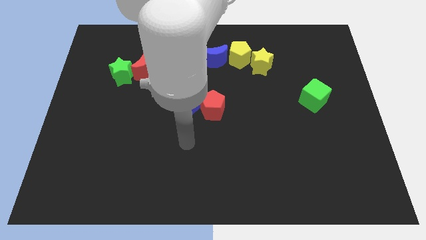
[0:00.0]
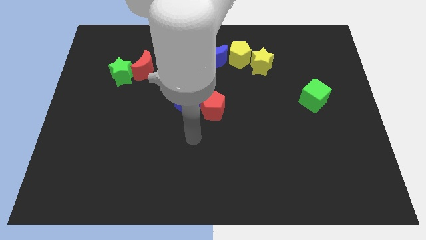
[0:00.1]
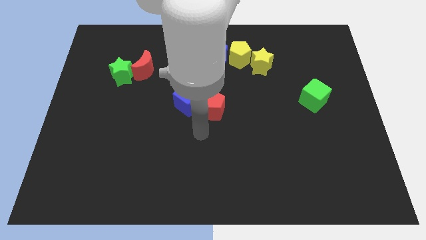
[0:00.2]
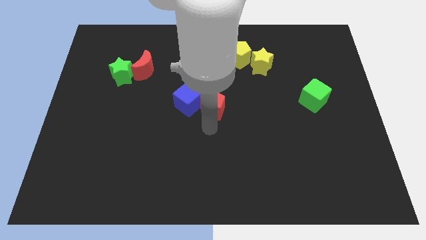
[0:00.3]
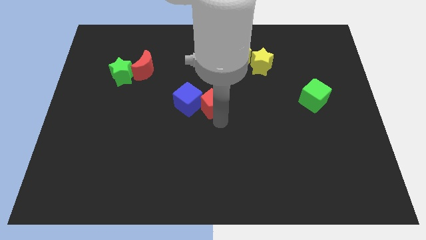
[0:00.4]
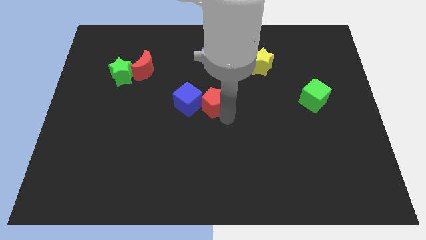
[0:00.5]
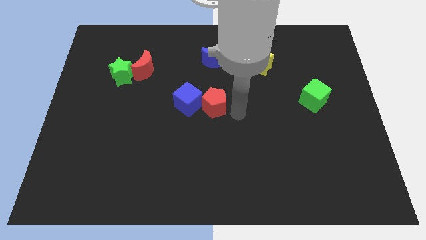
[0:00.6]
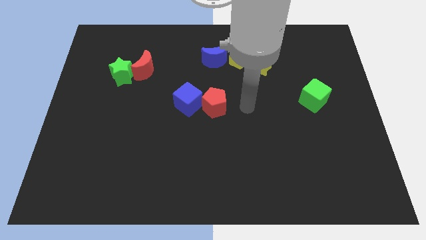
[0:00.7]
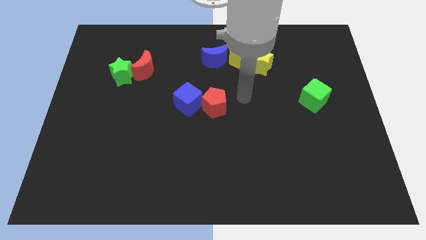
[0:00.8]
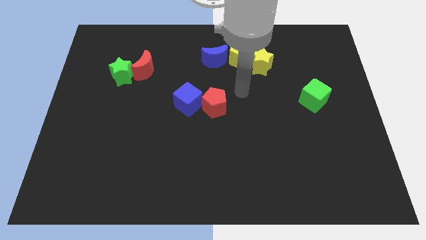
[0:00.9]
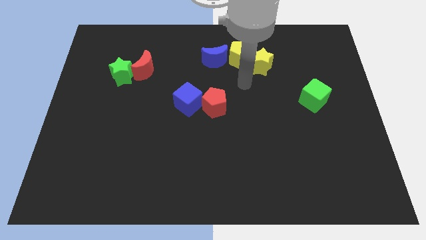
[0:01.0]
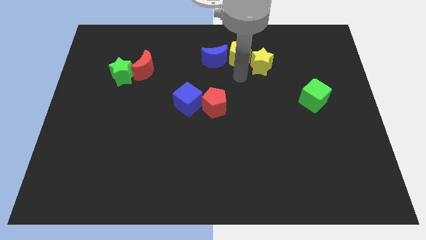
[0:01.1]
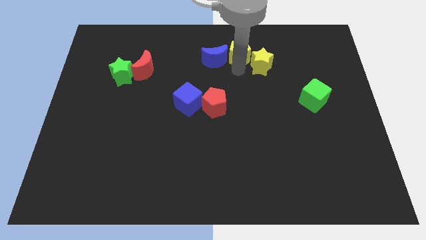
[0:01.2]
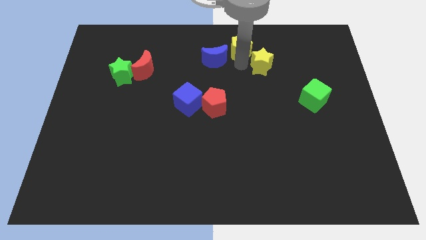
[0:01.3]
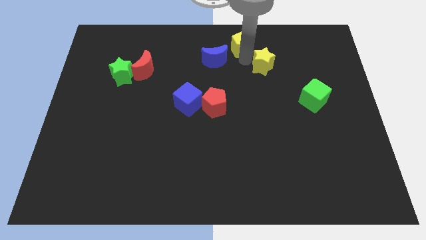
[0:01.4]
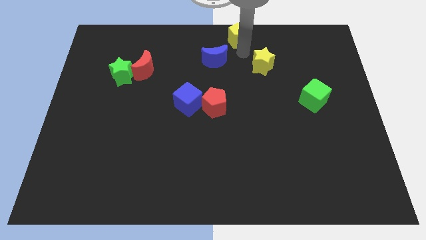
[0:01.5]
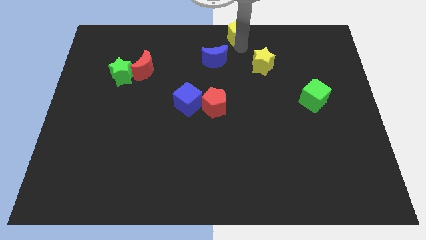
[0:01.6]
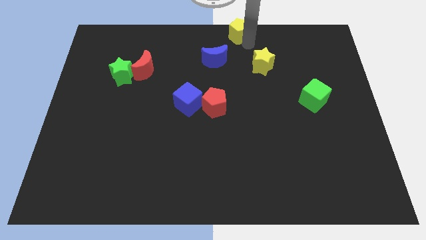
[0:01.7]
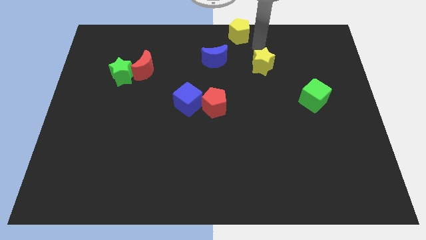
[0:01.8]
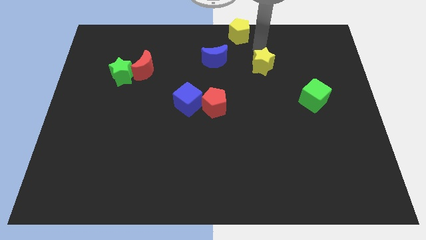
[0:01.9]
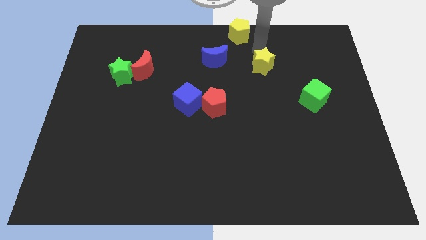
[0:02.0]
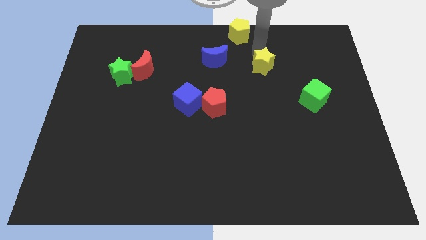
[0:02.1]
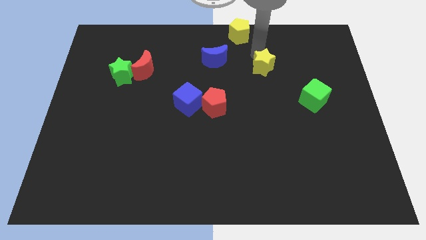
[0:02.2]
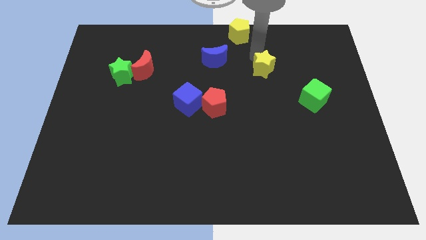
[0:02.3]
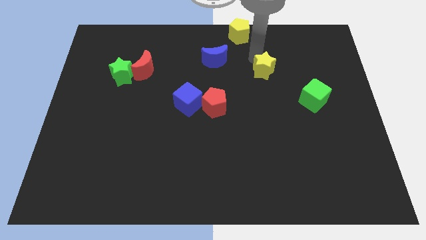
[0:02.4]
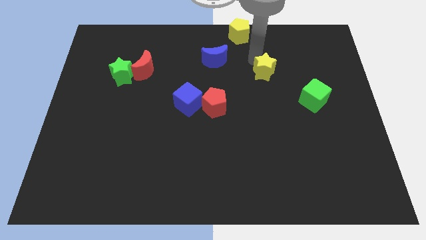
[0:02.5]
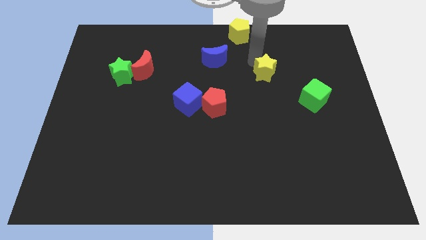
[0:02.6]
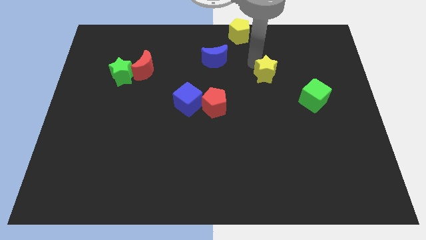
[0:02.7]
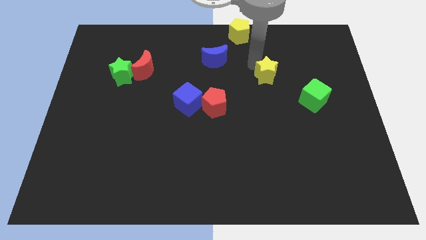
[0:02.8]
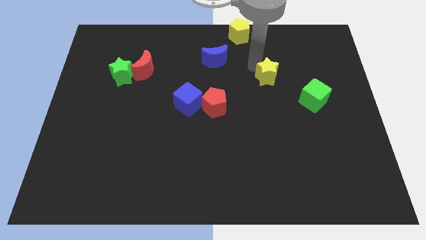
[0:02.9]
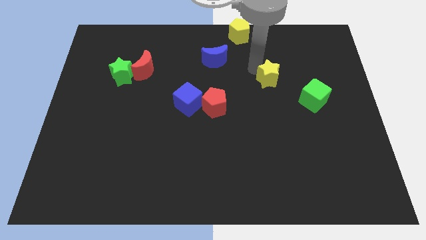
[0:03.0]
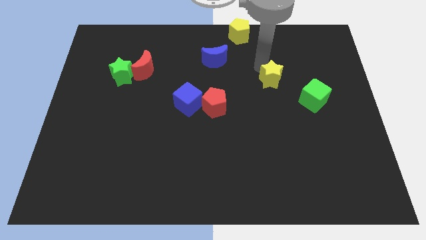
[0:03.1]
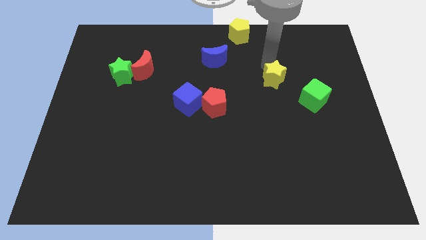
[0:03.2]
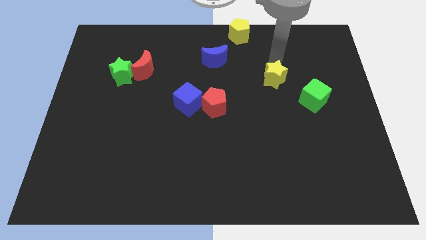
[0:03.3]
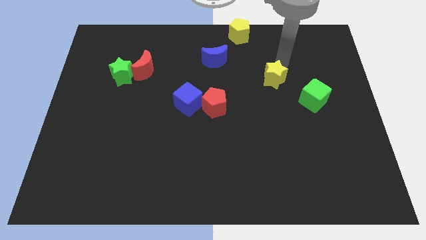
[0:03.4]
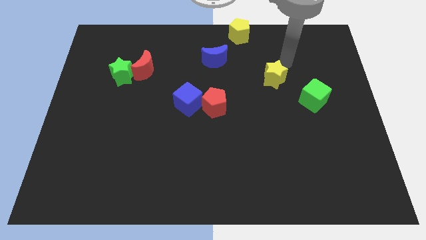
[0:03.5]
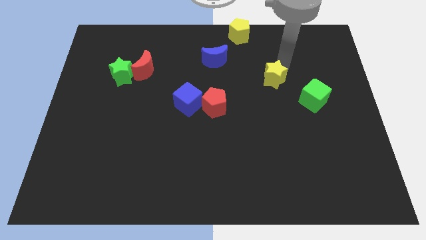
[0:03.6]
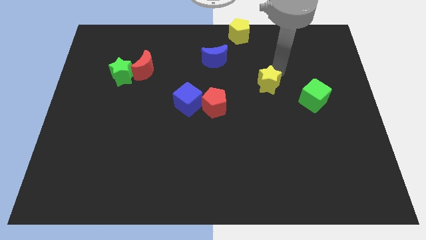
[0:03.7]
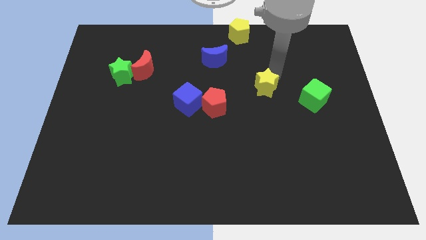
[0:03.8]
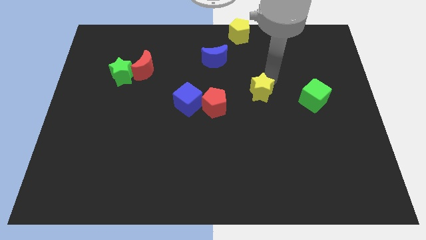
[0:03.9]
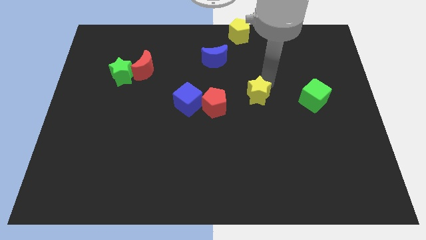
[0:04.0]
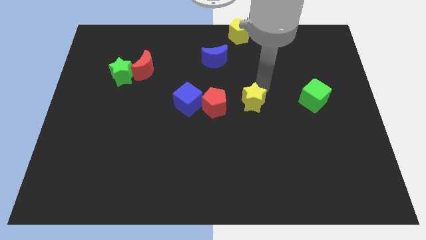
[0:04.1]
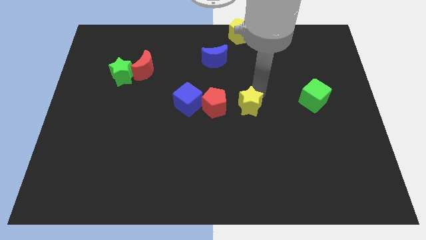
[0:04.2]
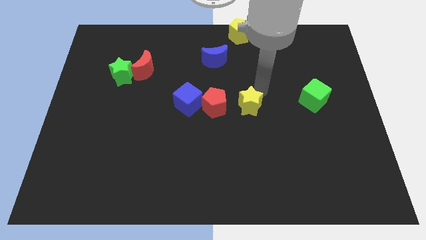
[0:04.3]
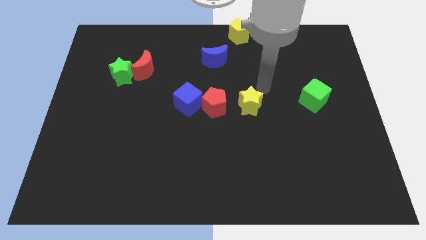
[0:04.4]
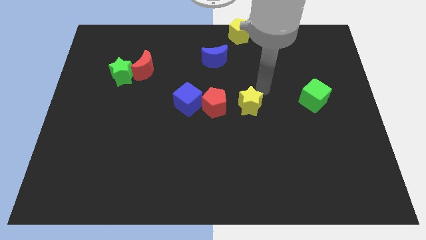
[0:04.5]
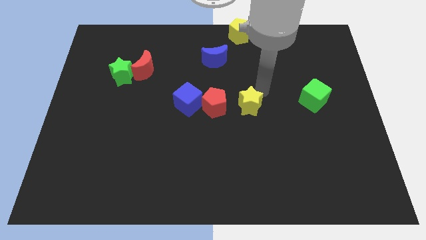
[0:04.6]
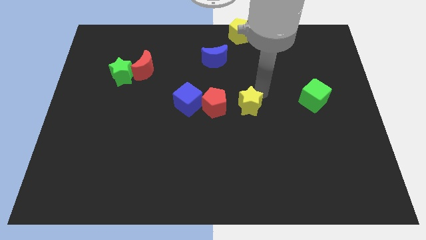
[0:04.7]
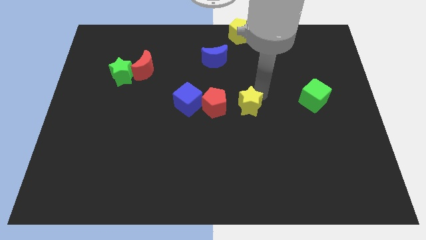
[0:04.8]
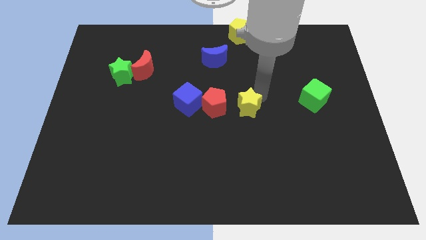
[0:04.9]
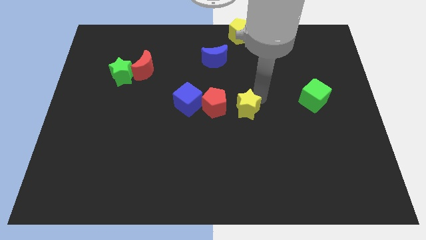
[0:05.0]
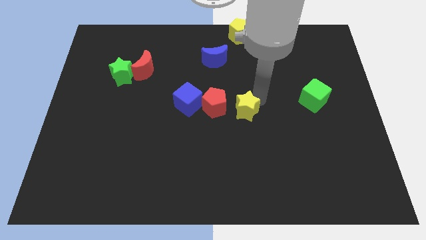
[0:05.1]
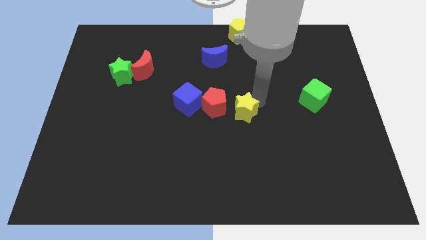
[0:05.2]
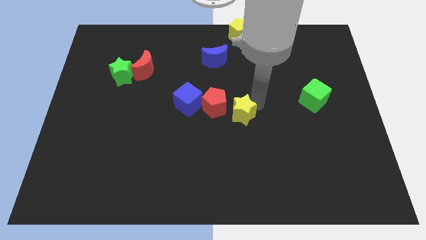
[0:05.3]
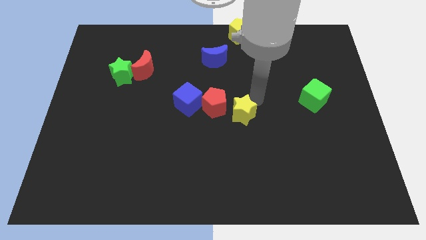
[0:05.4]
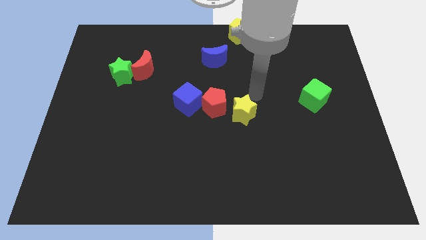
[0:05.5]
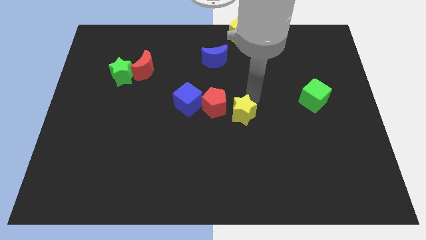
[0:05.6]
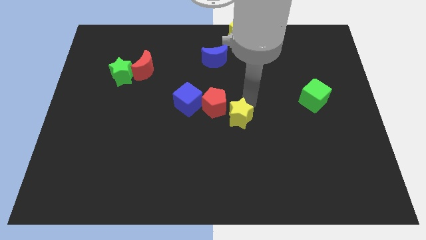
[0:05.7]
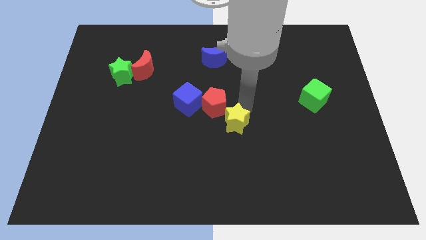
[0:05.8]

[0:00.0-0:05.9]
put the yellow star below the red pentagon
